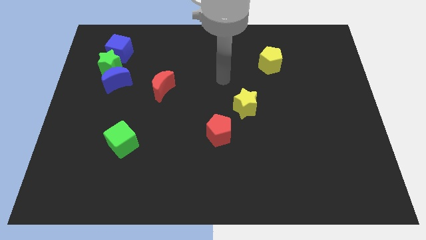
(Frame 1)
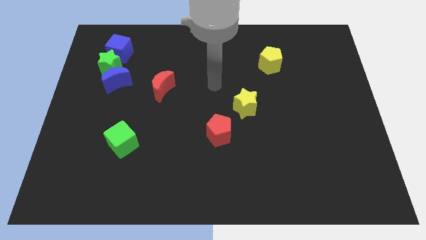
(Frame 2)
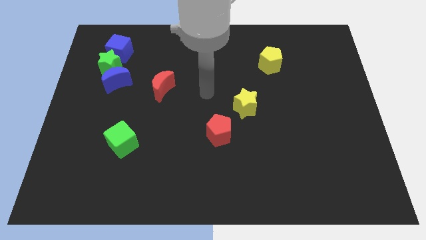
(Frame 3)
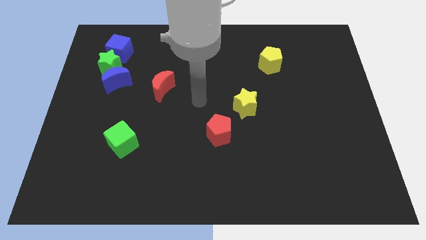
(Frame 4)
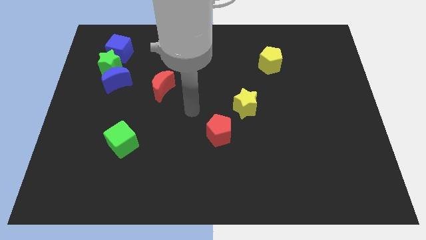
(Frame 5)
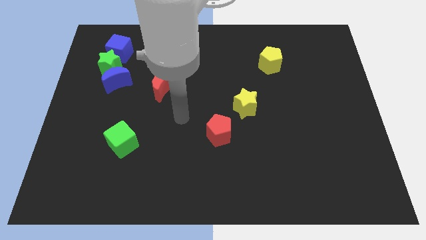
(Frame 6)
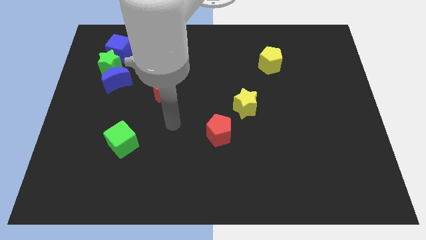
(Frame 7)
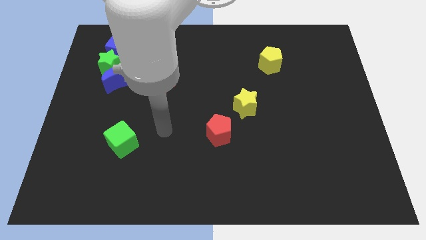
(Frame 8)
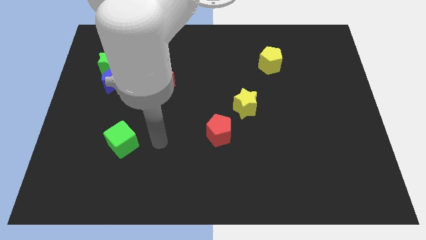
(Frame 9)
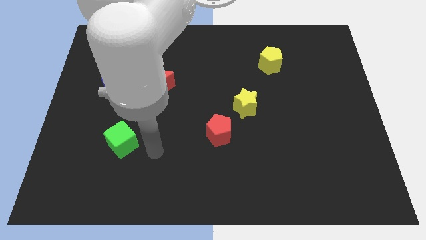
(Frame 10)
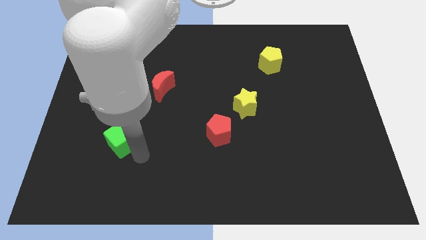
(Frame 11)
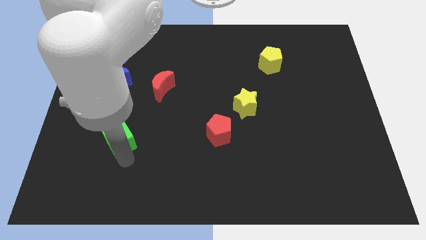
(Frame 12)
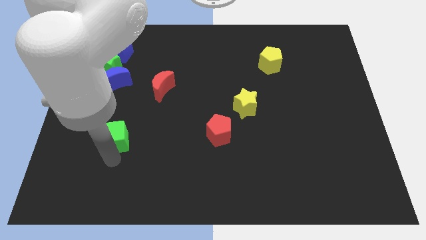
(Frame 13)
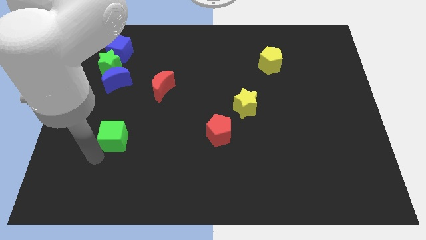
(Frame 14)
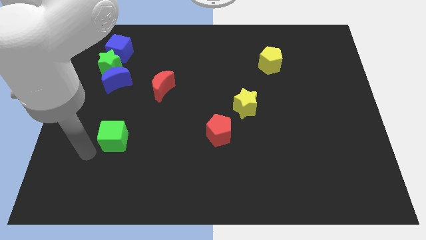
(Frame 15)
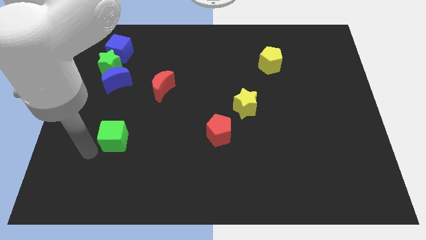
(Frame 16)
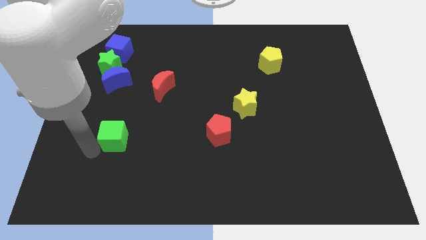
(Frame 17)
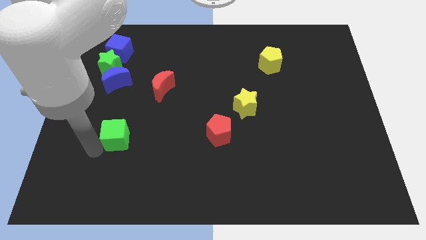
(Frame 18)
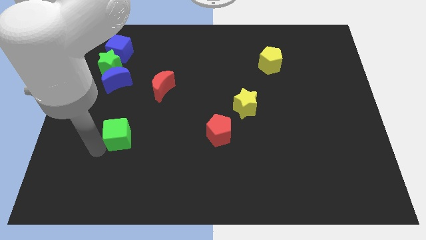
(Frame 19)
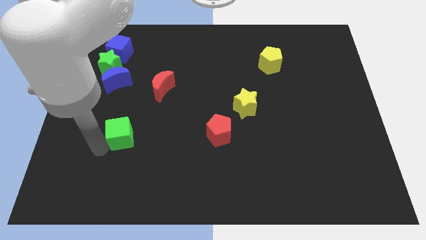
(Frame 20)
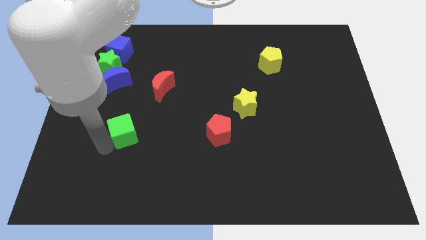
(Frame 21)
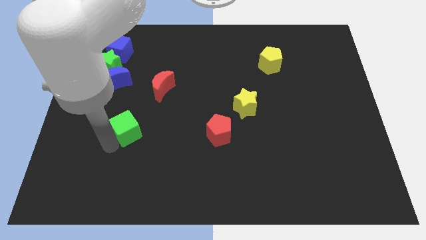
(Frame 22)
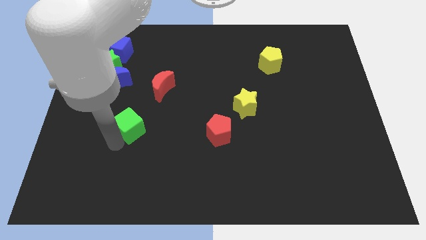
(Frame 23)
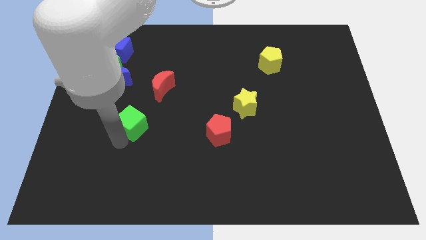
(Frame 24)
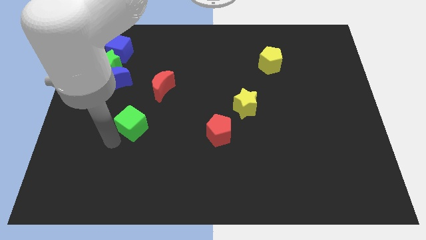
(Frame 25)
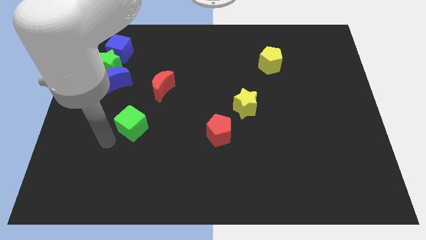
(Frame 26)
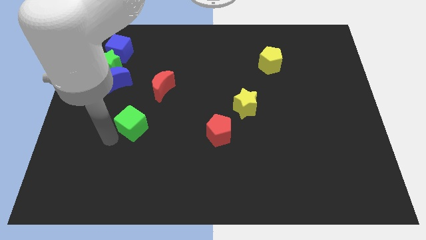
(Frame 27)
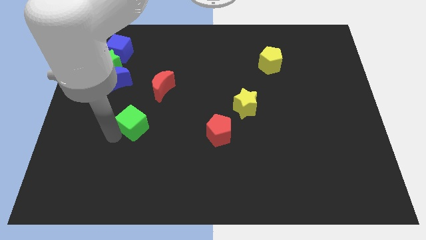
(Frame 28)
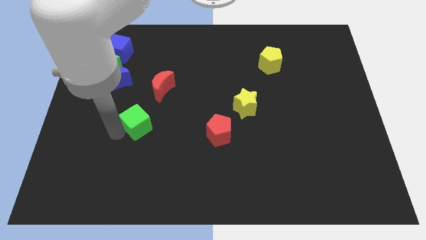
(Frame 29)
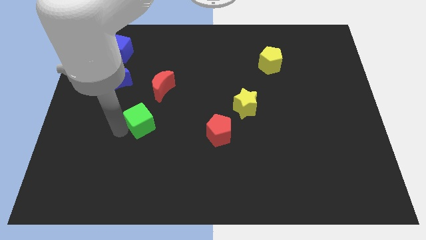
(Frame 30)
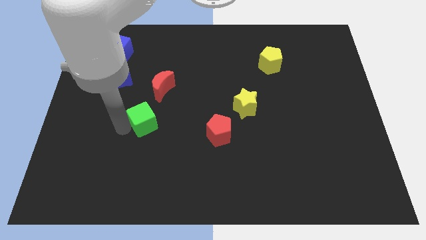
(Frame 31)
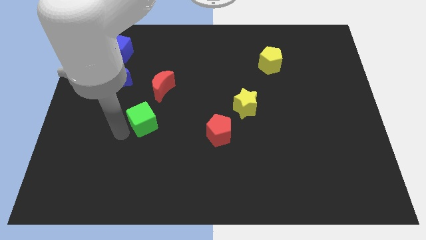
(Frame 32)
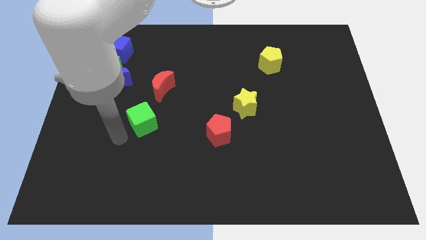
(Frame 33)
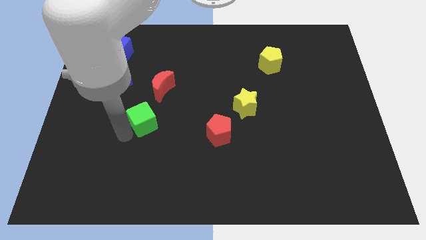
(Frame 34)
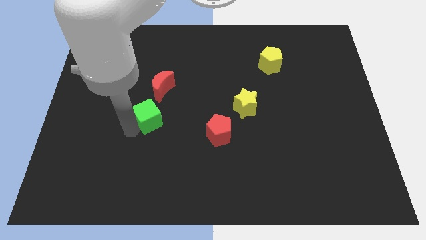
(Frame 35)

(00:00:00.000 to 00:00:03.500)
slide the green cube up and right a little bit

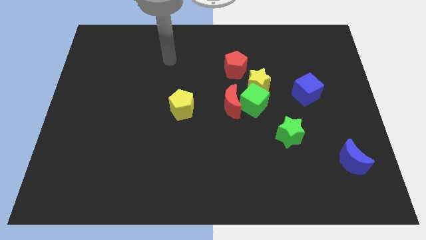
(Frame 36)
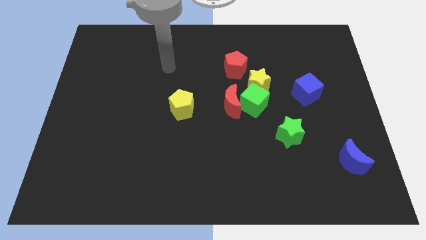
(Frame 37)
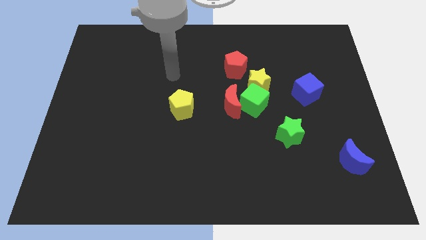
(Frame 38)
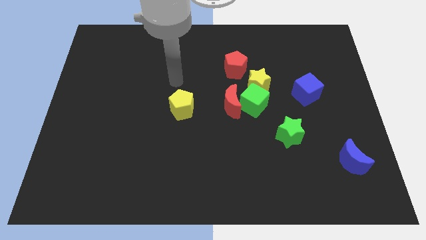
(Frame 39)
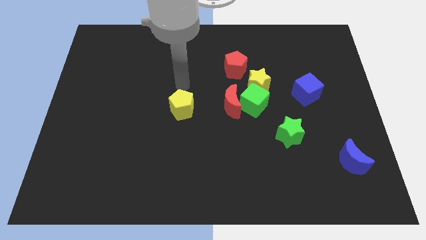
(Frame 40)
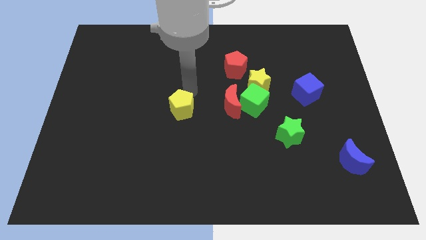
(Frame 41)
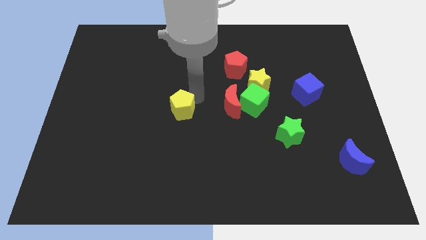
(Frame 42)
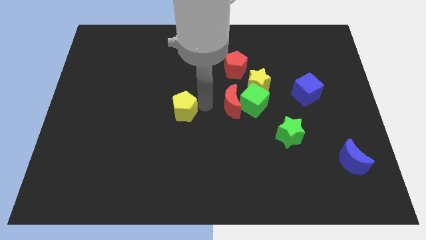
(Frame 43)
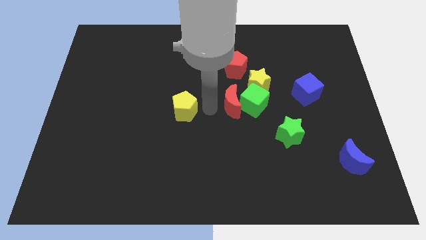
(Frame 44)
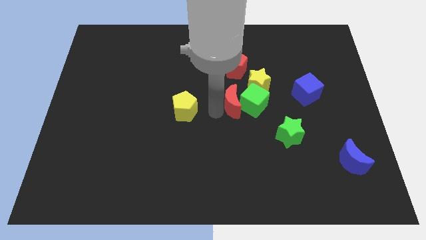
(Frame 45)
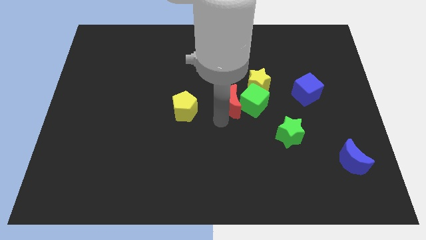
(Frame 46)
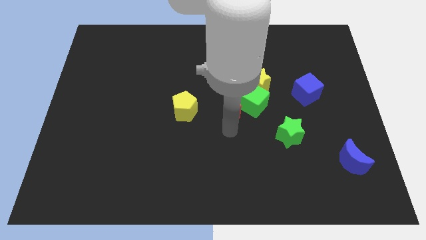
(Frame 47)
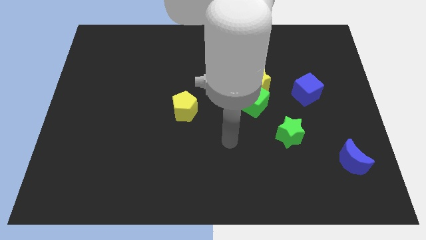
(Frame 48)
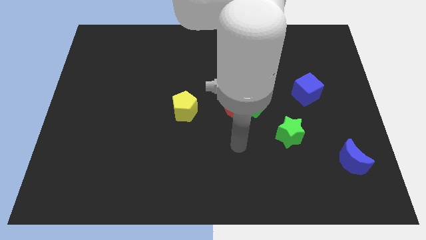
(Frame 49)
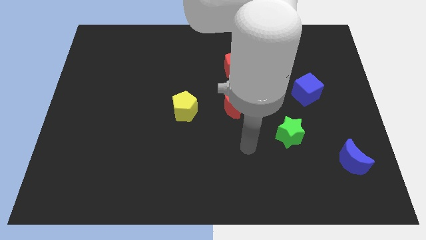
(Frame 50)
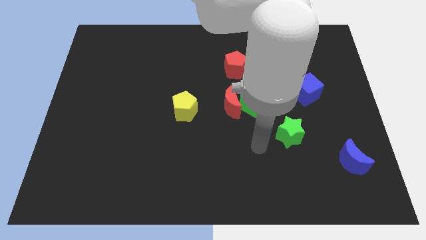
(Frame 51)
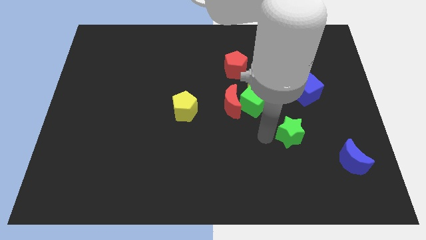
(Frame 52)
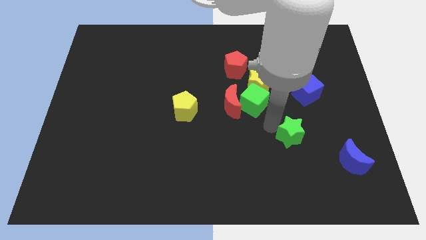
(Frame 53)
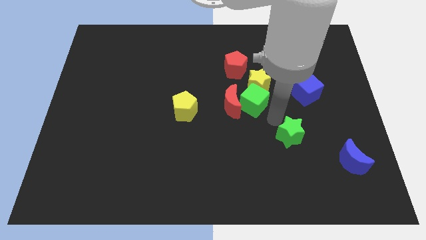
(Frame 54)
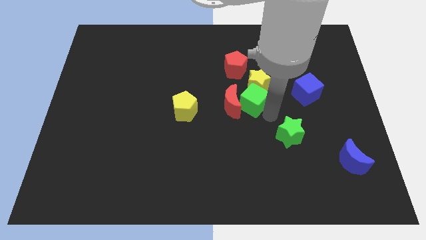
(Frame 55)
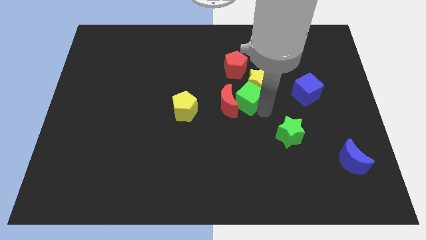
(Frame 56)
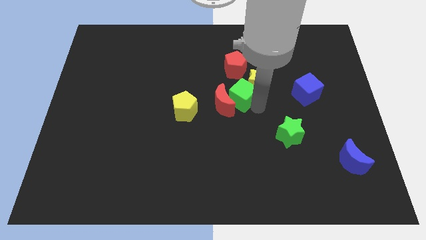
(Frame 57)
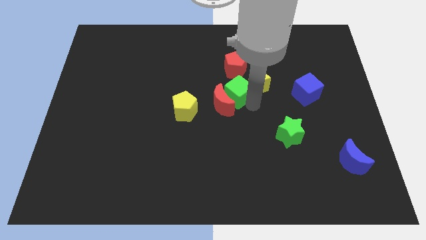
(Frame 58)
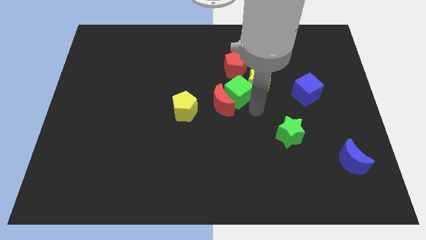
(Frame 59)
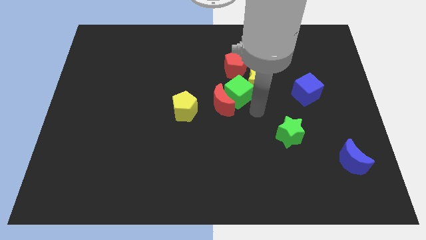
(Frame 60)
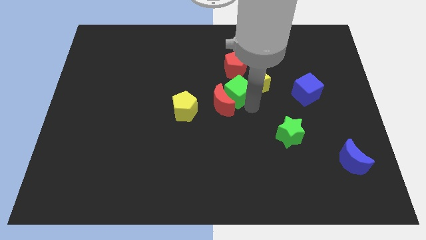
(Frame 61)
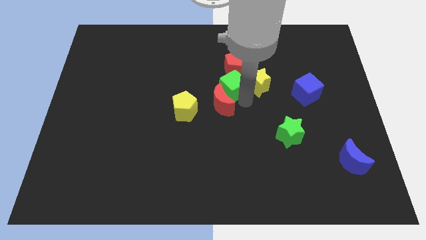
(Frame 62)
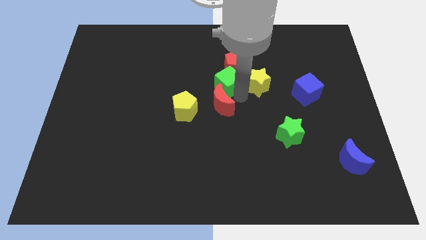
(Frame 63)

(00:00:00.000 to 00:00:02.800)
move the green cube somewhat up and to the left diagonally

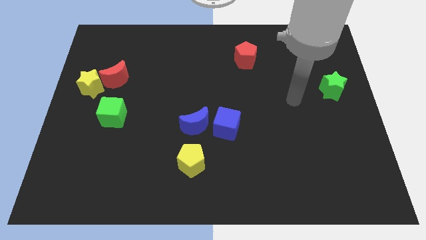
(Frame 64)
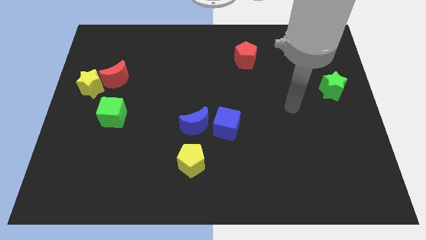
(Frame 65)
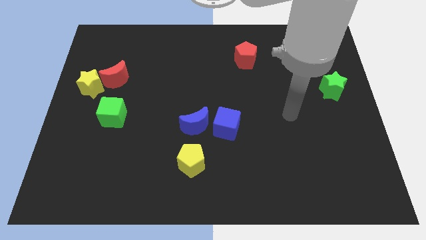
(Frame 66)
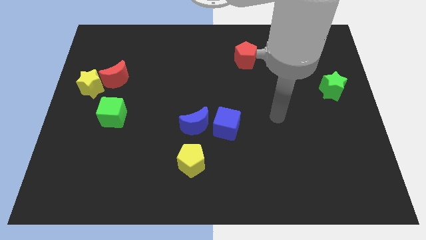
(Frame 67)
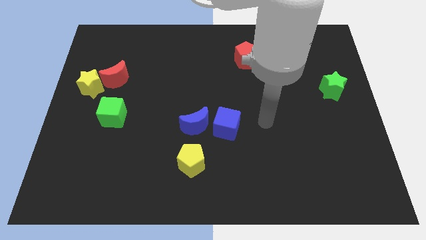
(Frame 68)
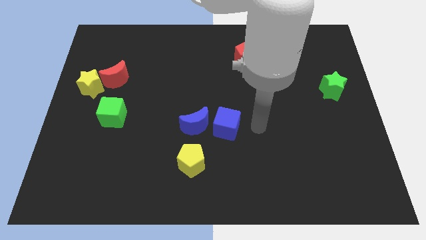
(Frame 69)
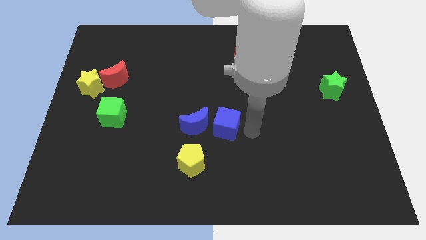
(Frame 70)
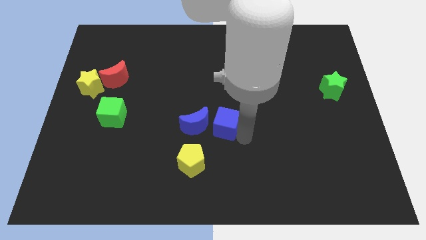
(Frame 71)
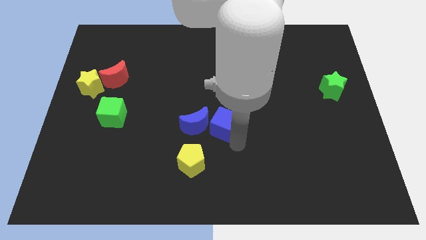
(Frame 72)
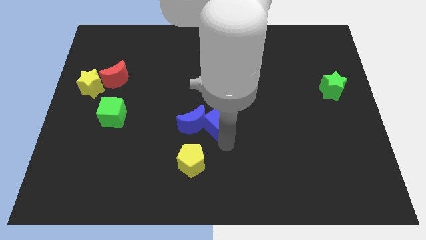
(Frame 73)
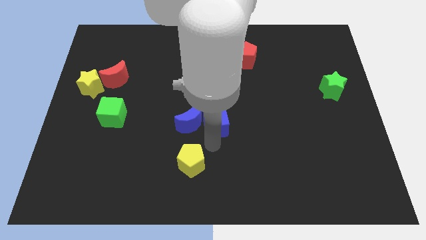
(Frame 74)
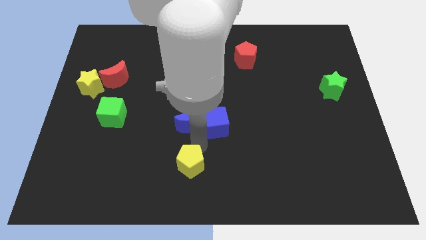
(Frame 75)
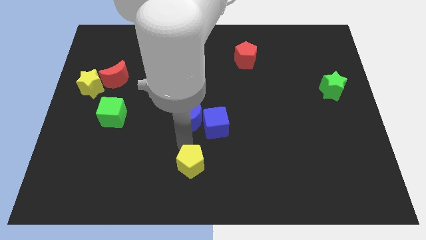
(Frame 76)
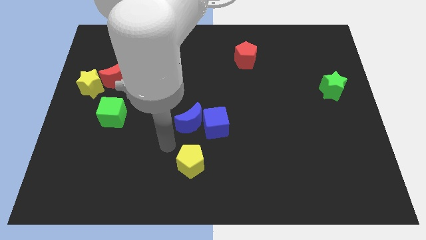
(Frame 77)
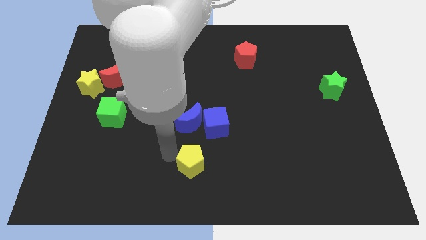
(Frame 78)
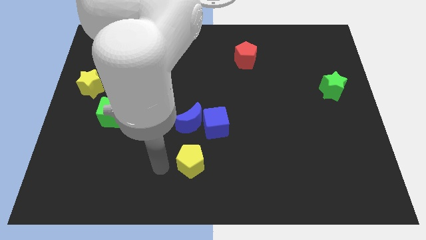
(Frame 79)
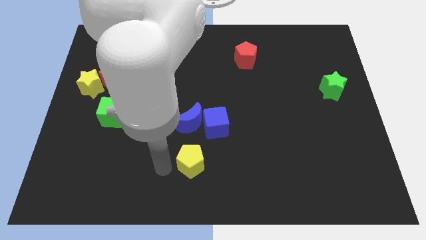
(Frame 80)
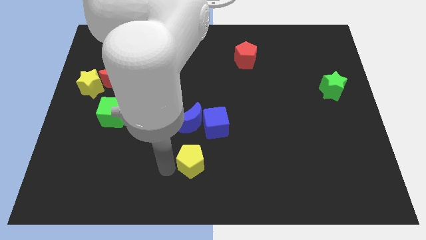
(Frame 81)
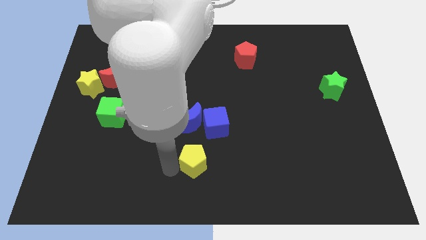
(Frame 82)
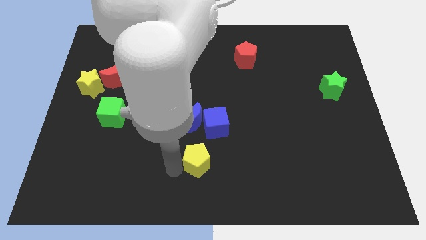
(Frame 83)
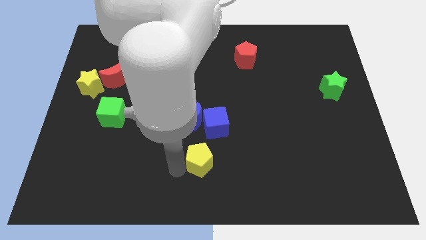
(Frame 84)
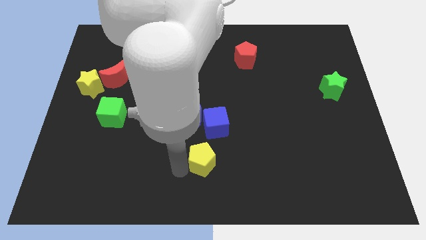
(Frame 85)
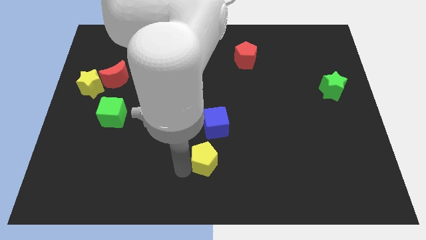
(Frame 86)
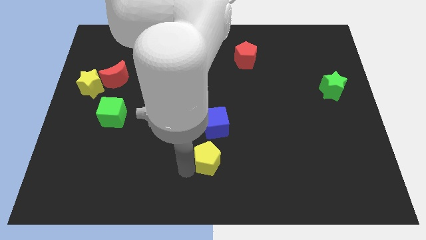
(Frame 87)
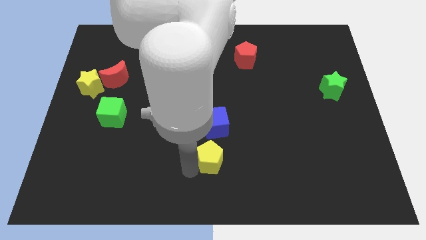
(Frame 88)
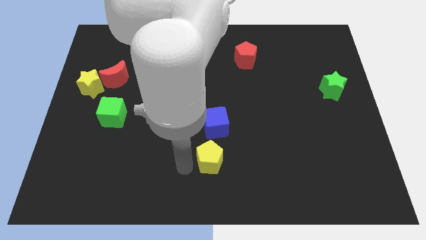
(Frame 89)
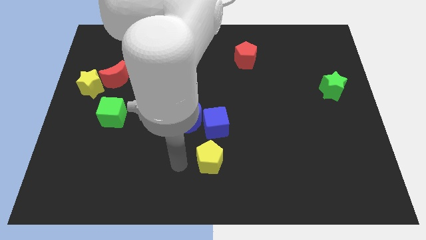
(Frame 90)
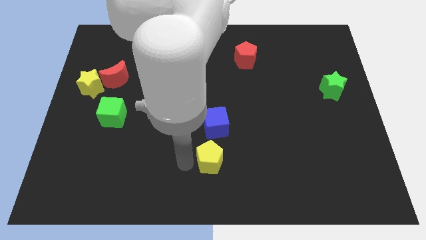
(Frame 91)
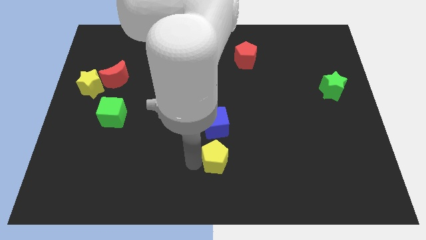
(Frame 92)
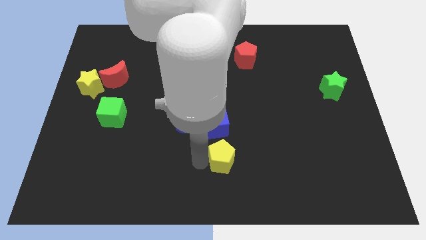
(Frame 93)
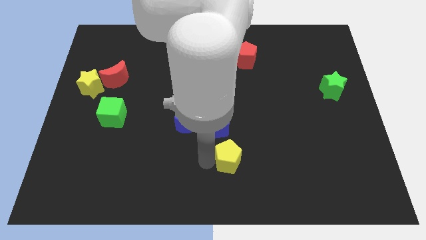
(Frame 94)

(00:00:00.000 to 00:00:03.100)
push the yellow pentagon to the right somewhat
